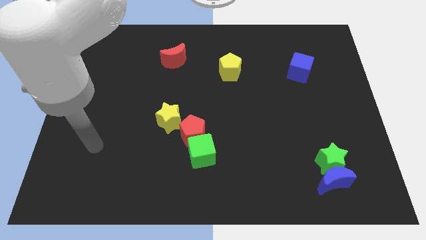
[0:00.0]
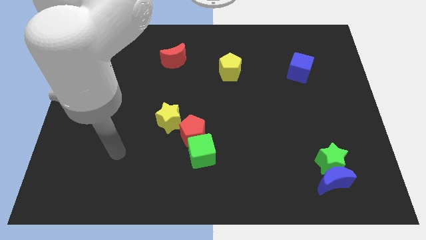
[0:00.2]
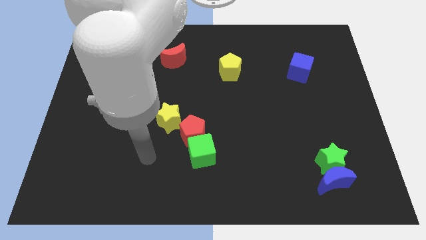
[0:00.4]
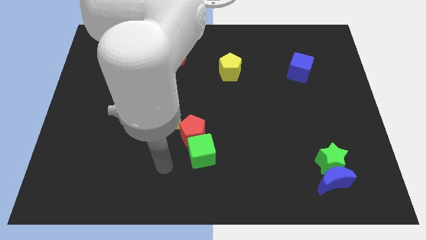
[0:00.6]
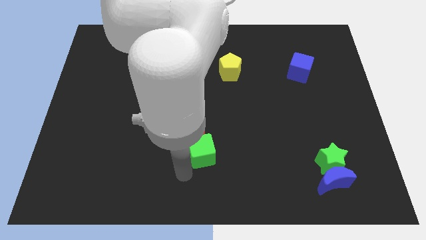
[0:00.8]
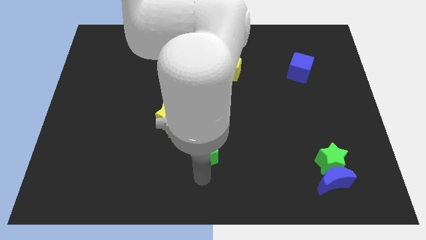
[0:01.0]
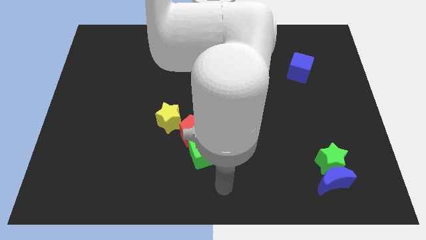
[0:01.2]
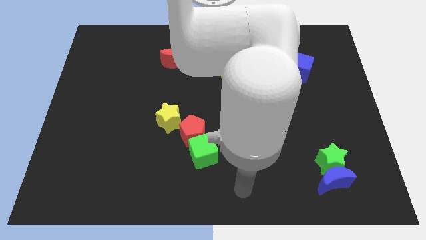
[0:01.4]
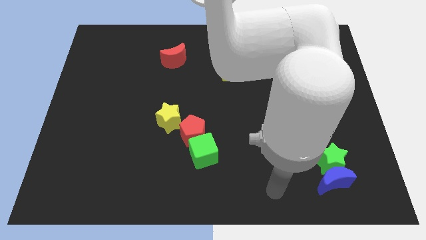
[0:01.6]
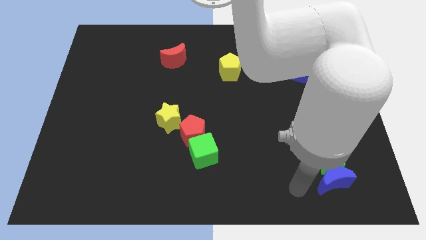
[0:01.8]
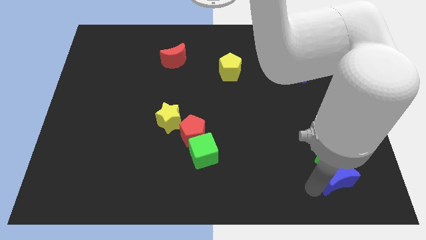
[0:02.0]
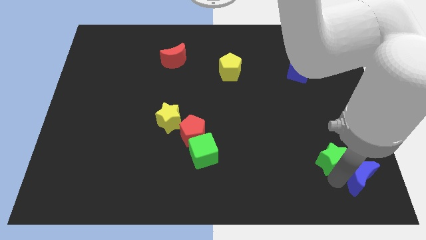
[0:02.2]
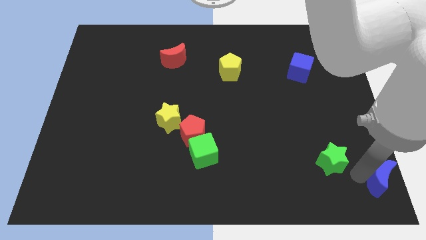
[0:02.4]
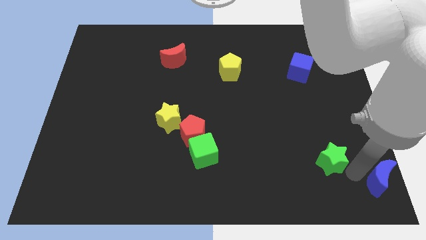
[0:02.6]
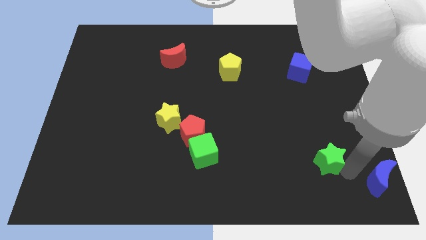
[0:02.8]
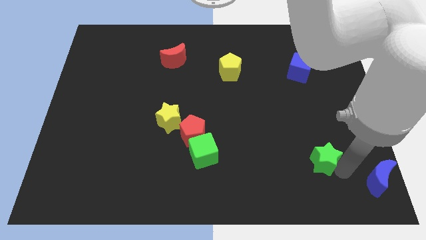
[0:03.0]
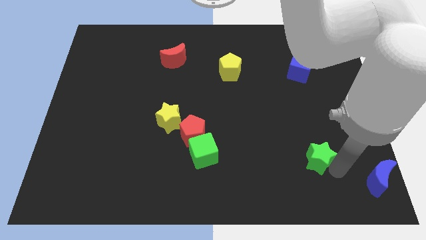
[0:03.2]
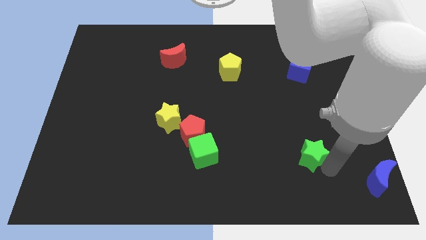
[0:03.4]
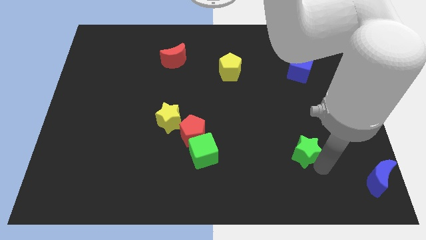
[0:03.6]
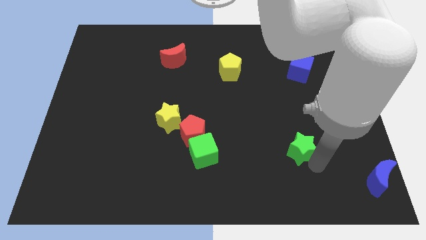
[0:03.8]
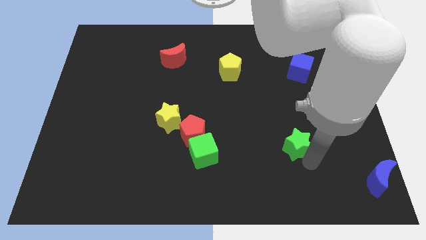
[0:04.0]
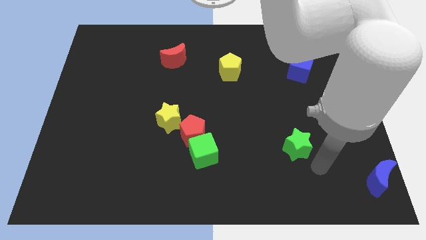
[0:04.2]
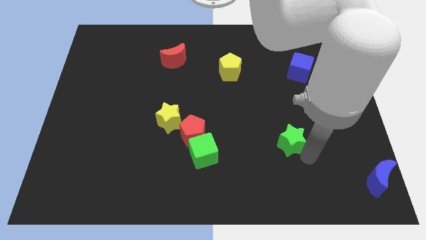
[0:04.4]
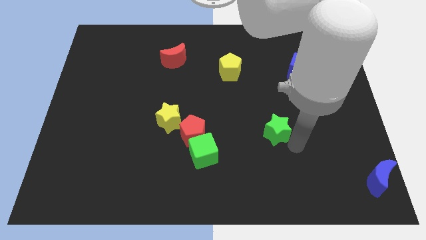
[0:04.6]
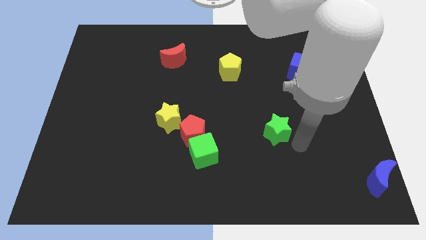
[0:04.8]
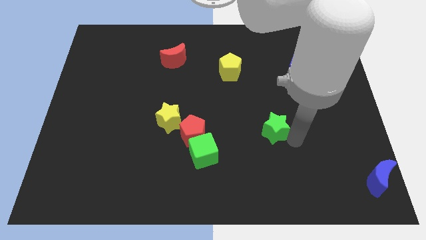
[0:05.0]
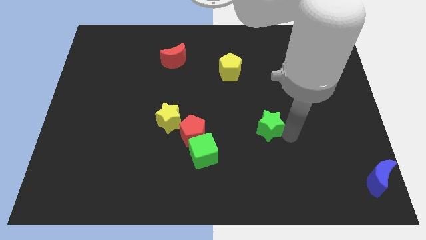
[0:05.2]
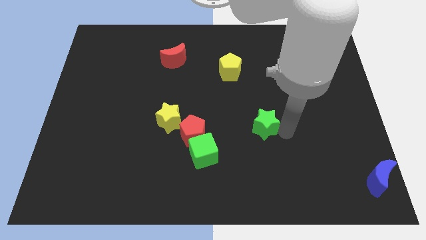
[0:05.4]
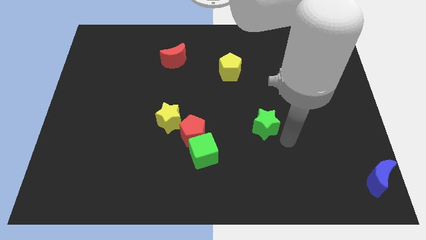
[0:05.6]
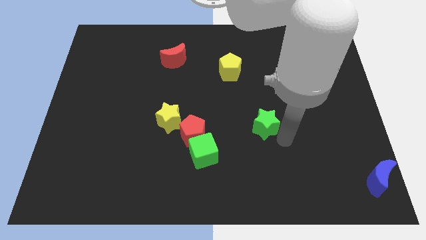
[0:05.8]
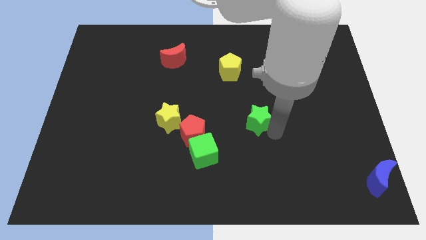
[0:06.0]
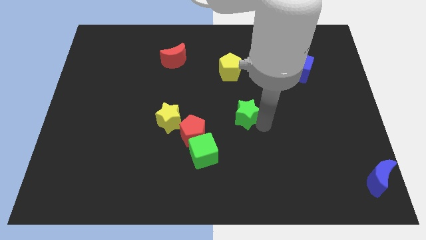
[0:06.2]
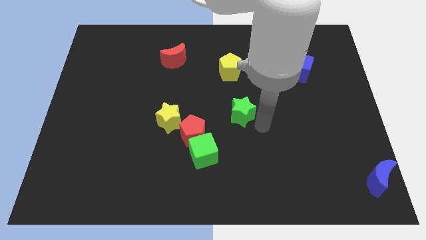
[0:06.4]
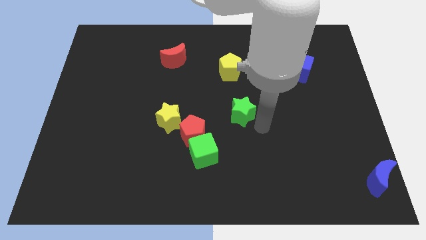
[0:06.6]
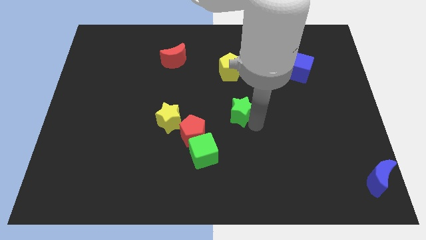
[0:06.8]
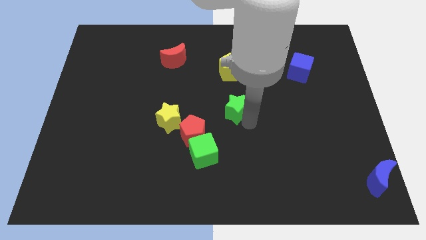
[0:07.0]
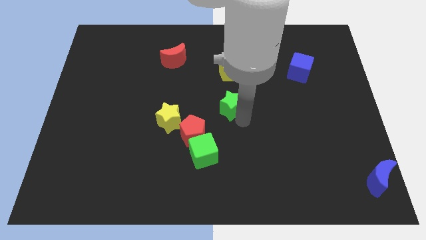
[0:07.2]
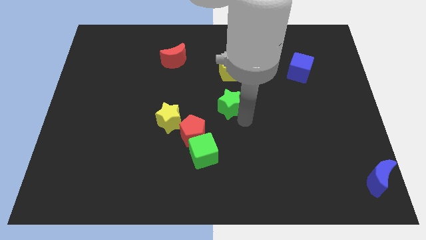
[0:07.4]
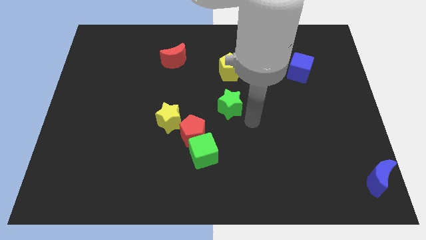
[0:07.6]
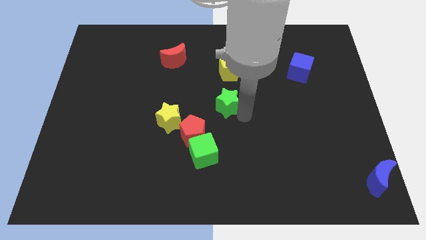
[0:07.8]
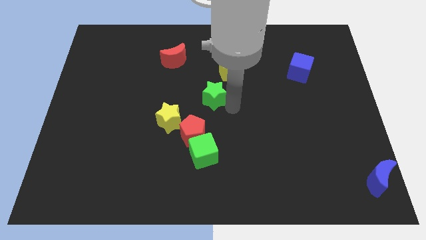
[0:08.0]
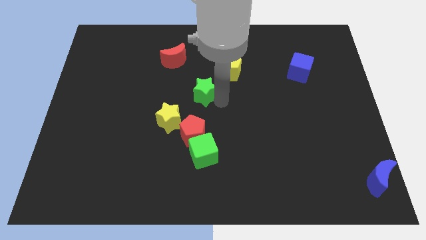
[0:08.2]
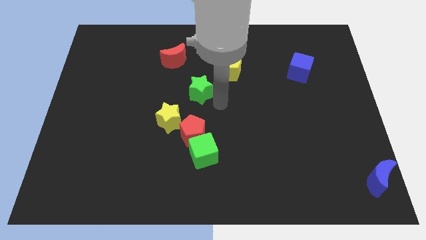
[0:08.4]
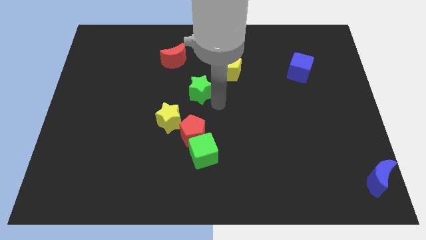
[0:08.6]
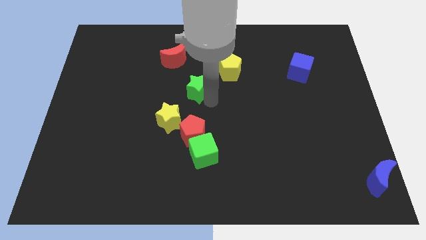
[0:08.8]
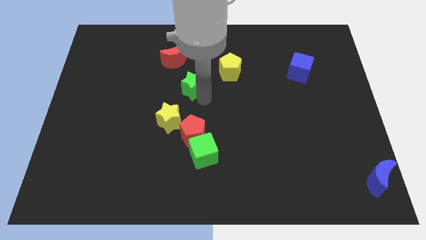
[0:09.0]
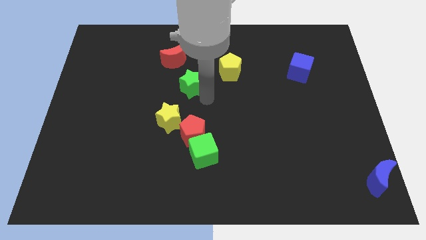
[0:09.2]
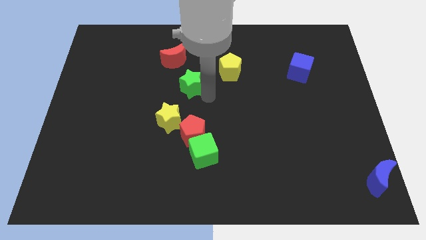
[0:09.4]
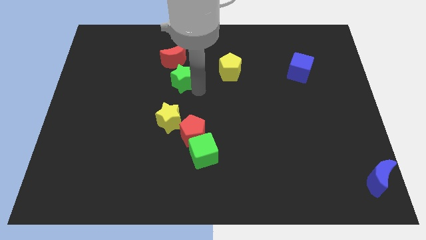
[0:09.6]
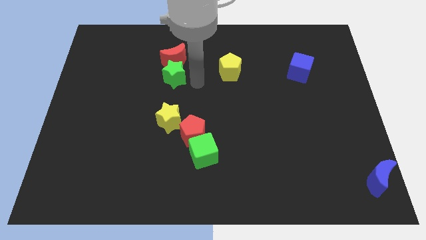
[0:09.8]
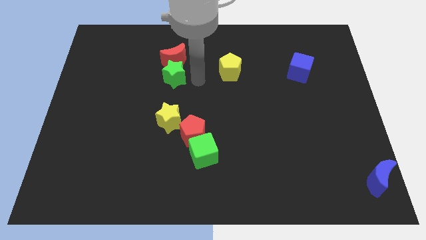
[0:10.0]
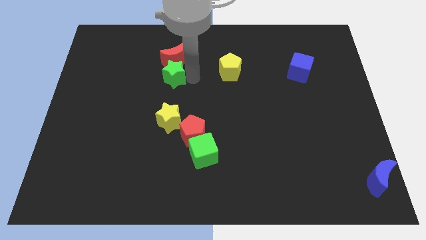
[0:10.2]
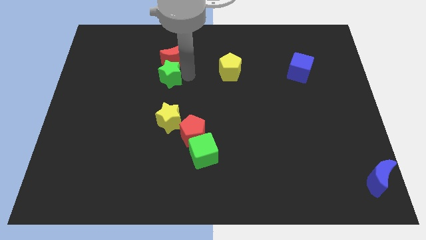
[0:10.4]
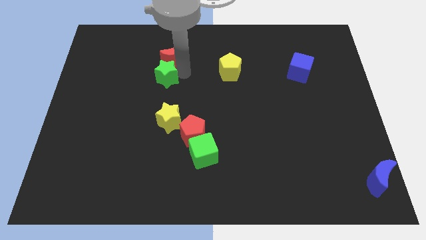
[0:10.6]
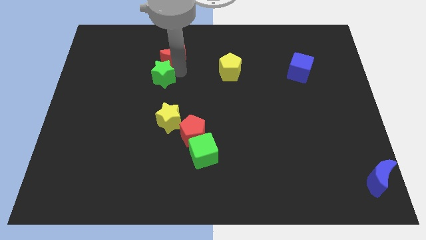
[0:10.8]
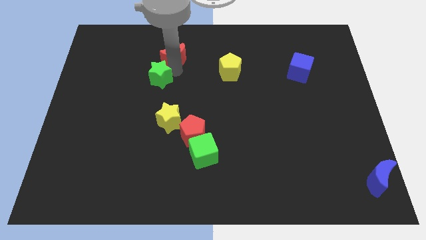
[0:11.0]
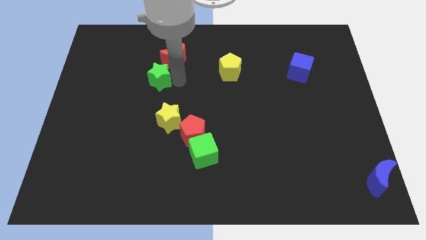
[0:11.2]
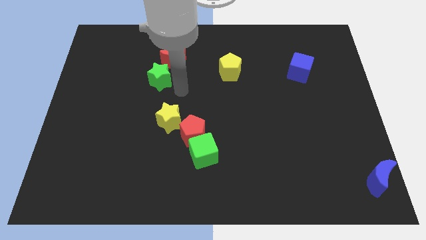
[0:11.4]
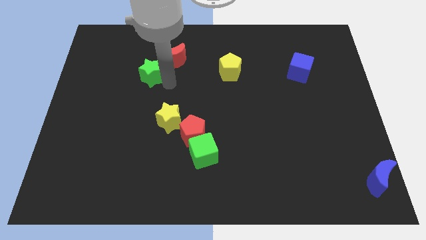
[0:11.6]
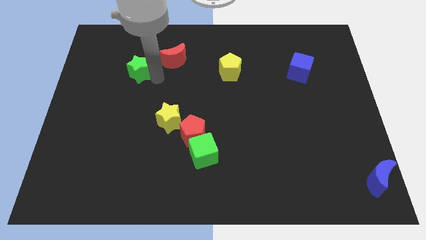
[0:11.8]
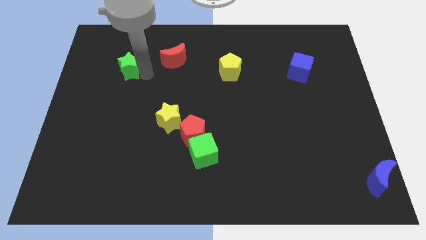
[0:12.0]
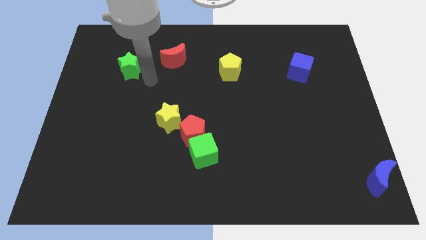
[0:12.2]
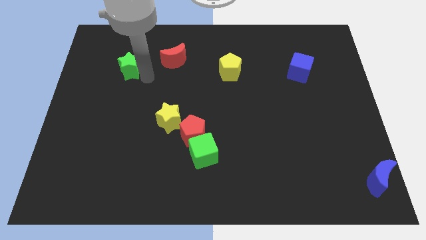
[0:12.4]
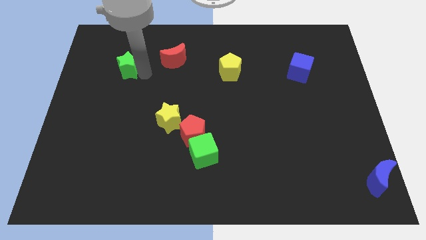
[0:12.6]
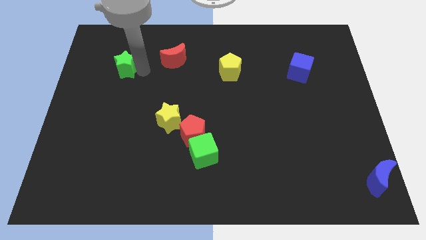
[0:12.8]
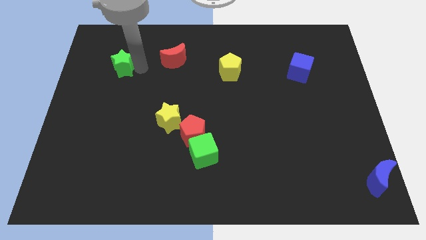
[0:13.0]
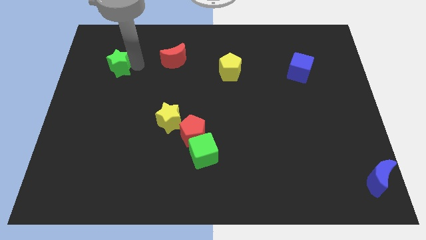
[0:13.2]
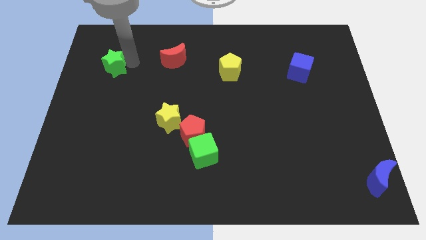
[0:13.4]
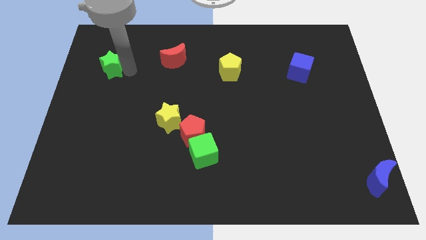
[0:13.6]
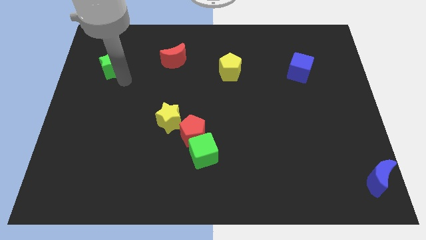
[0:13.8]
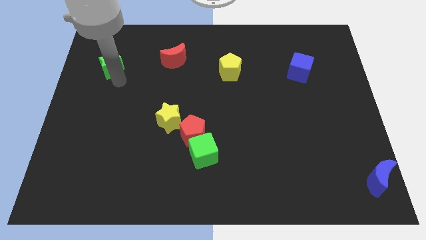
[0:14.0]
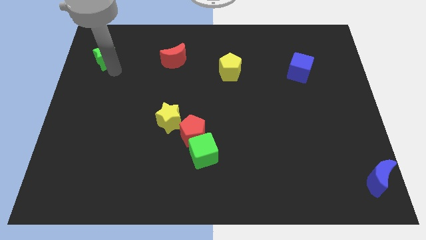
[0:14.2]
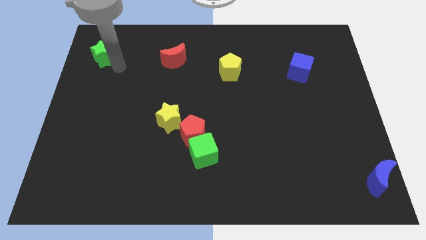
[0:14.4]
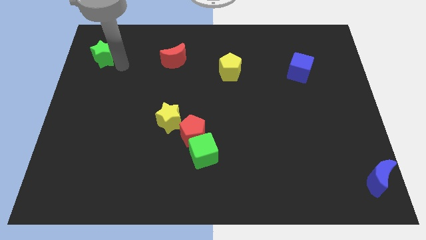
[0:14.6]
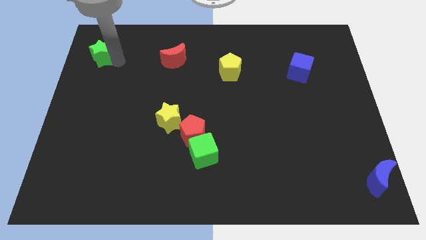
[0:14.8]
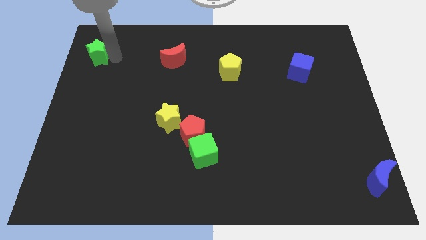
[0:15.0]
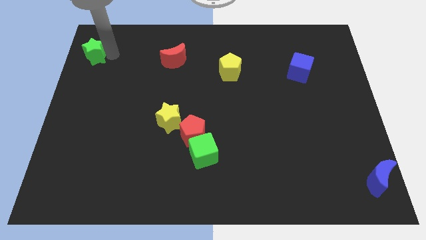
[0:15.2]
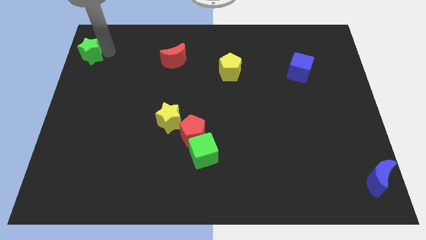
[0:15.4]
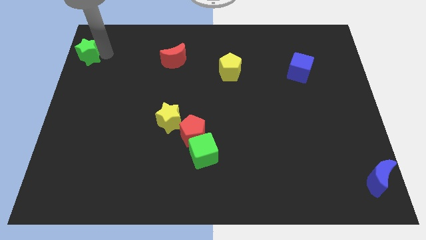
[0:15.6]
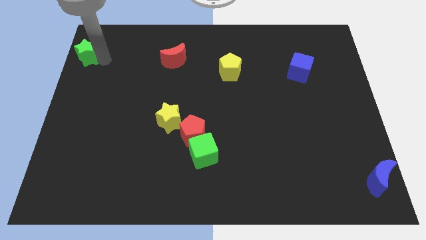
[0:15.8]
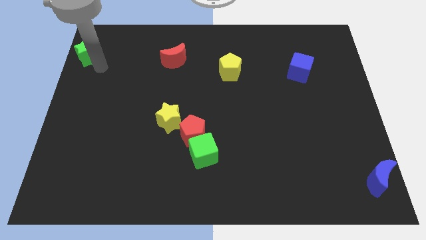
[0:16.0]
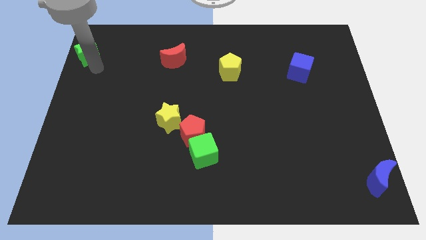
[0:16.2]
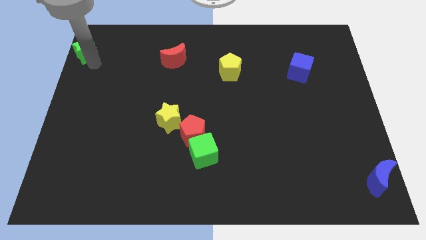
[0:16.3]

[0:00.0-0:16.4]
push the green star to the upper left corner
